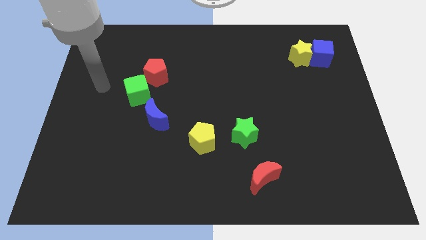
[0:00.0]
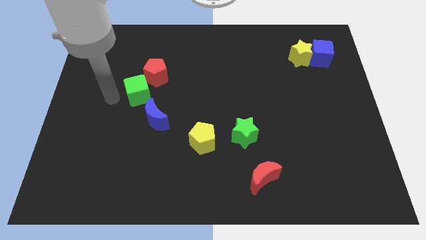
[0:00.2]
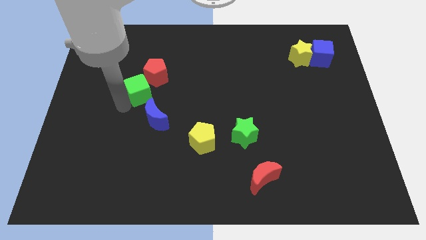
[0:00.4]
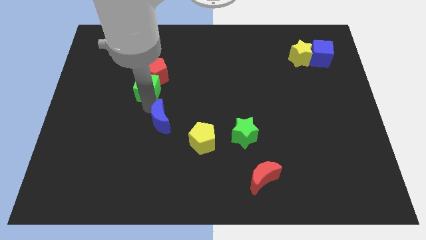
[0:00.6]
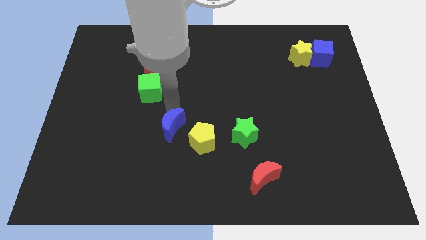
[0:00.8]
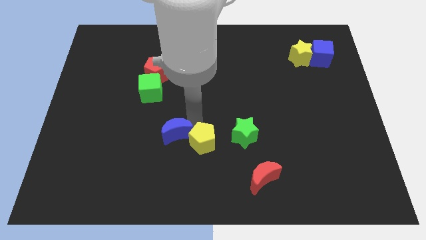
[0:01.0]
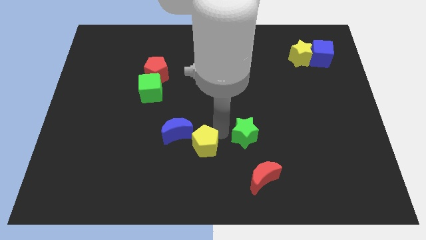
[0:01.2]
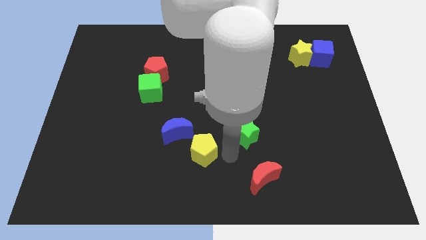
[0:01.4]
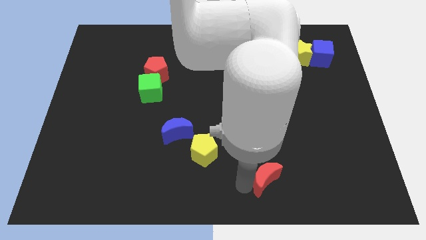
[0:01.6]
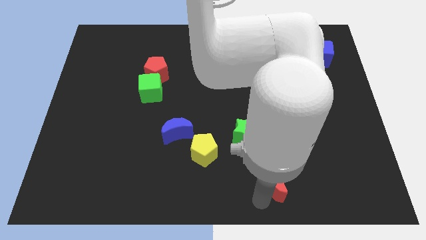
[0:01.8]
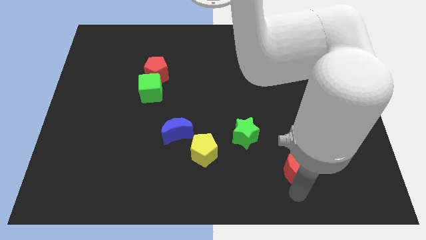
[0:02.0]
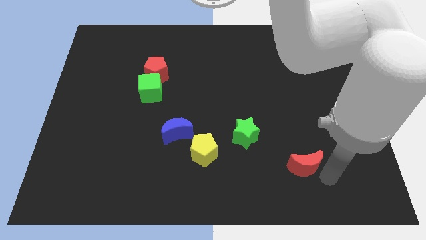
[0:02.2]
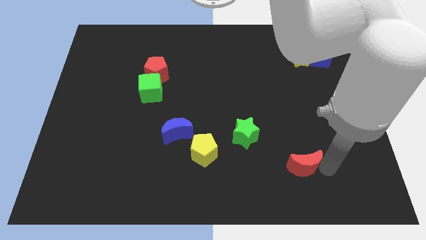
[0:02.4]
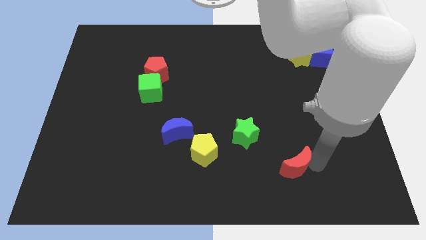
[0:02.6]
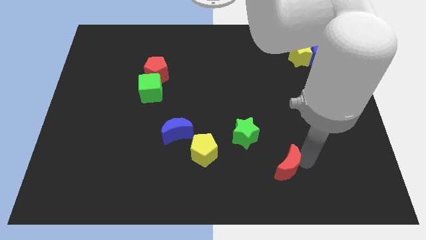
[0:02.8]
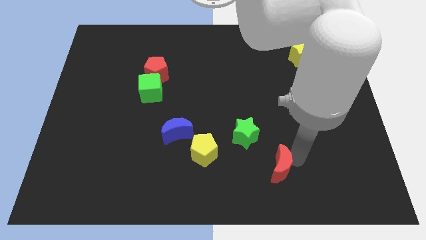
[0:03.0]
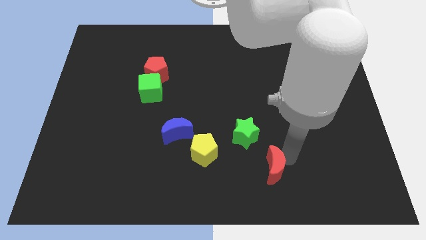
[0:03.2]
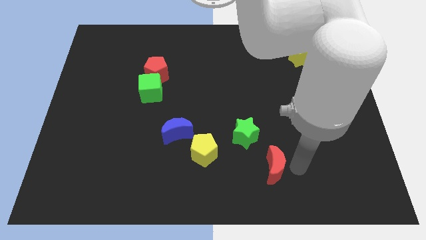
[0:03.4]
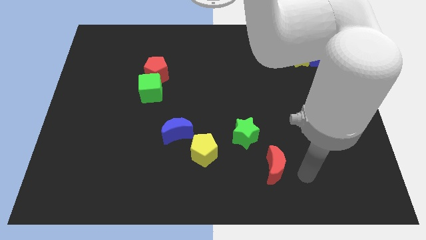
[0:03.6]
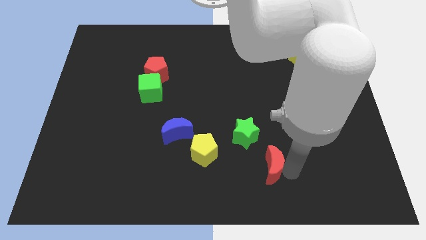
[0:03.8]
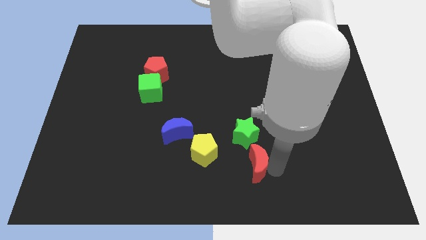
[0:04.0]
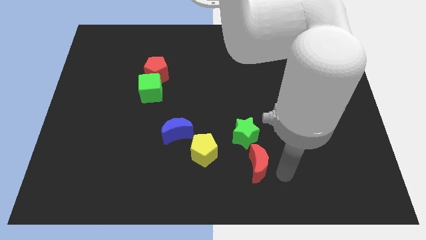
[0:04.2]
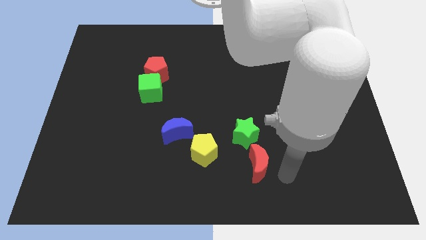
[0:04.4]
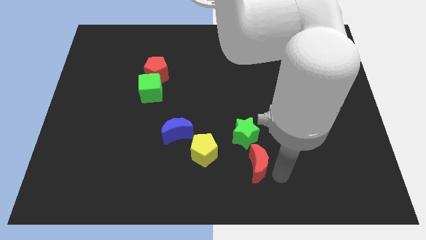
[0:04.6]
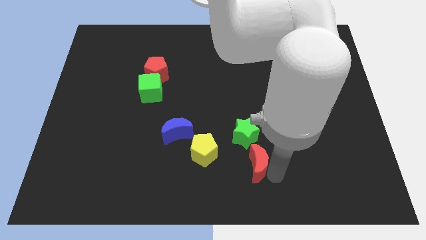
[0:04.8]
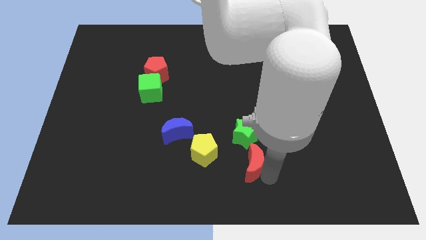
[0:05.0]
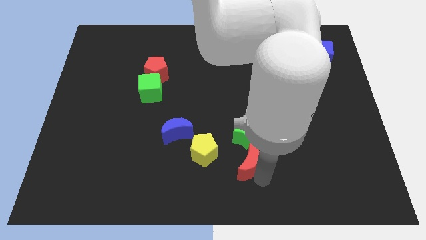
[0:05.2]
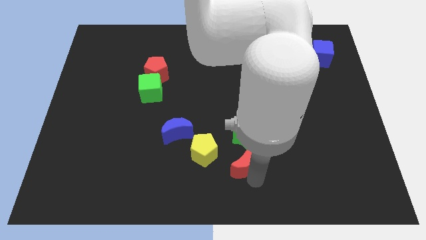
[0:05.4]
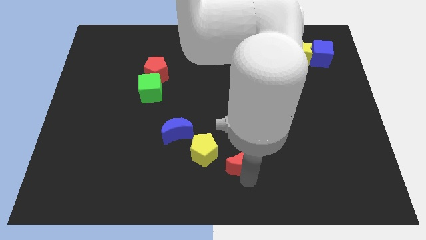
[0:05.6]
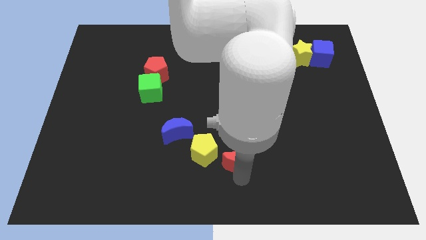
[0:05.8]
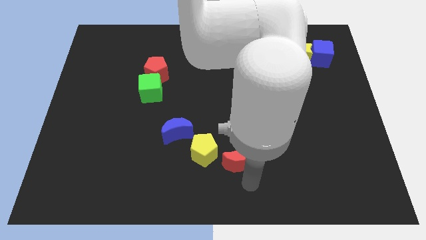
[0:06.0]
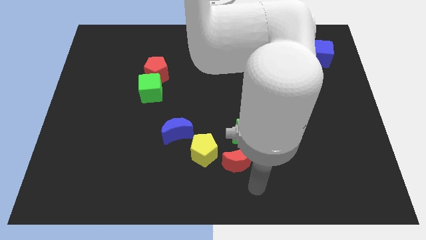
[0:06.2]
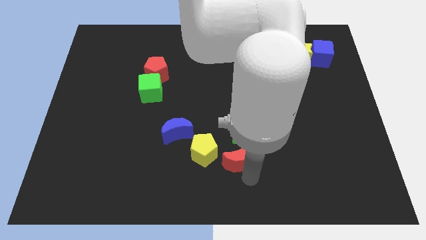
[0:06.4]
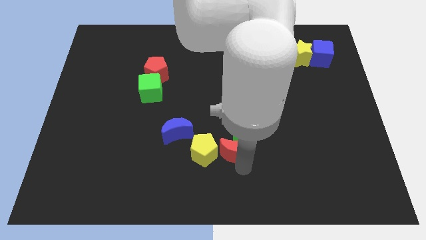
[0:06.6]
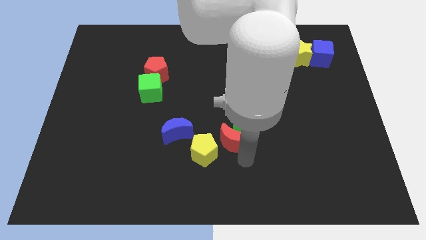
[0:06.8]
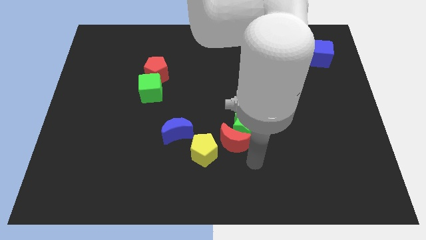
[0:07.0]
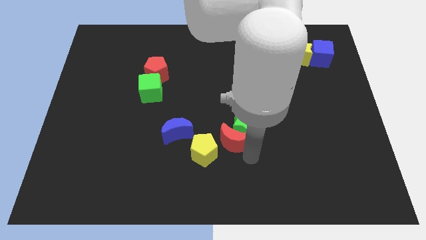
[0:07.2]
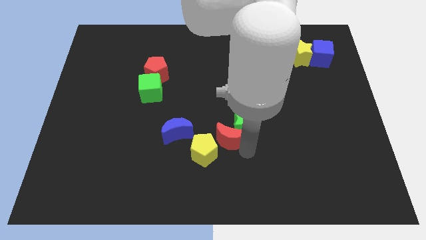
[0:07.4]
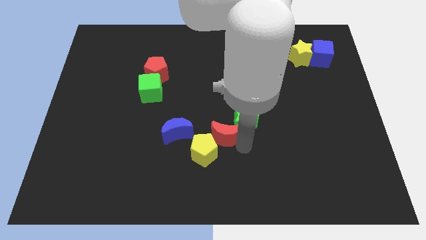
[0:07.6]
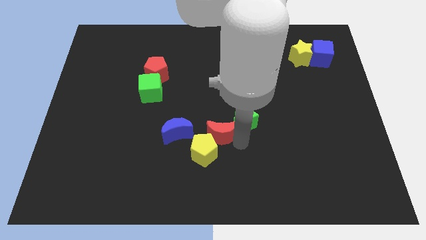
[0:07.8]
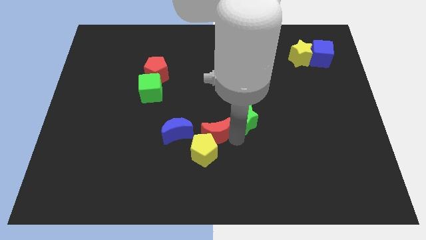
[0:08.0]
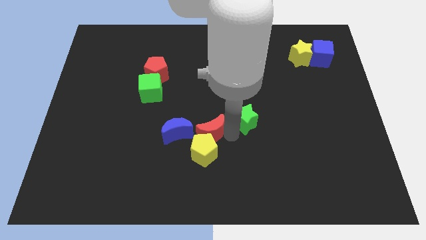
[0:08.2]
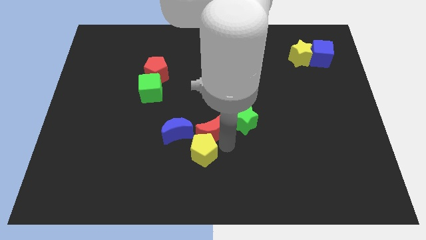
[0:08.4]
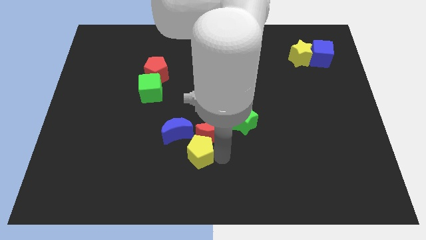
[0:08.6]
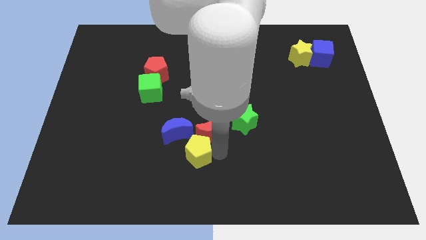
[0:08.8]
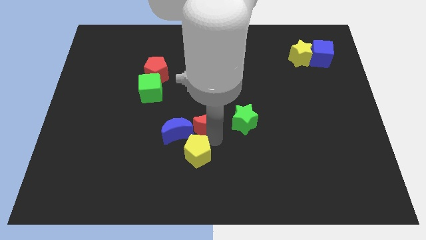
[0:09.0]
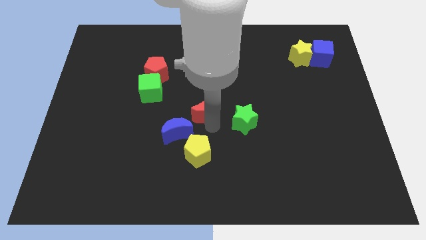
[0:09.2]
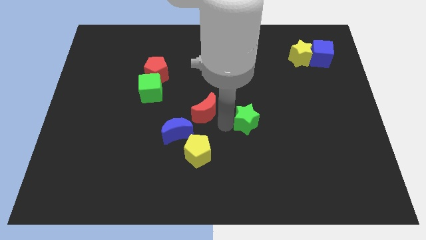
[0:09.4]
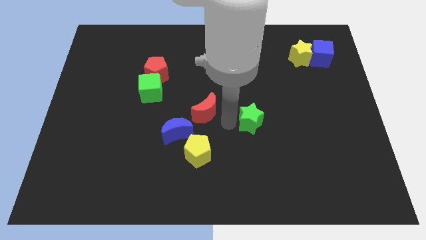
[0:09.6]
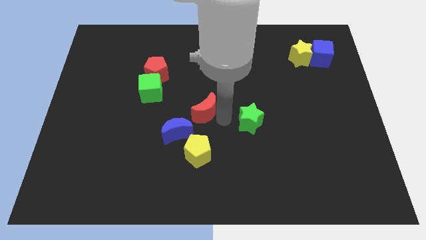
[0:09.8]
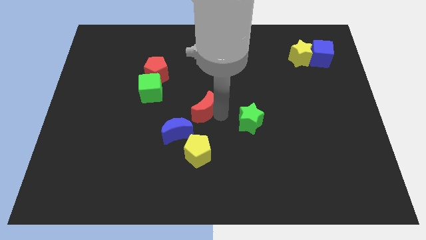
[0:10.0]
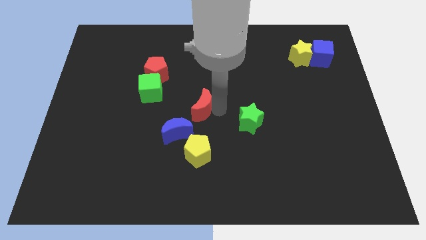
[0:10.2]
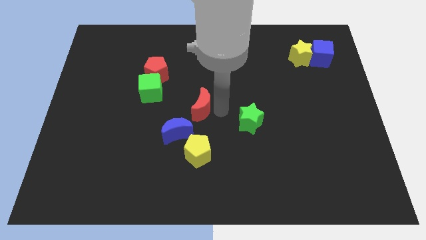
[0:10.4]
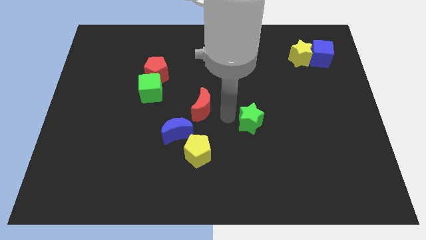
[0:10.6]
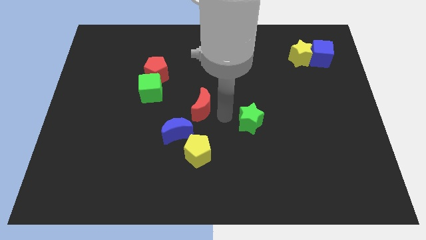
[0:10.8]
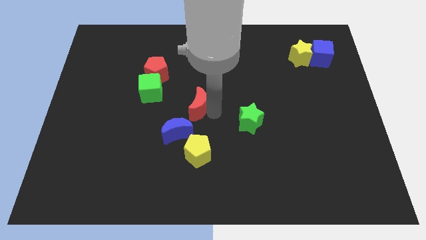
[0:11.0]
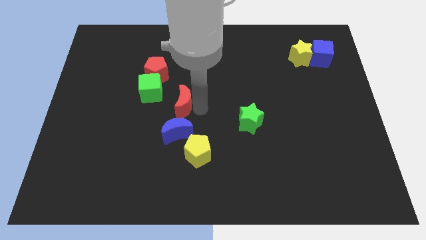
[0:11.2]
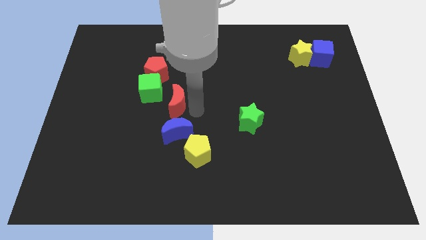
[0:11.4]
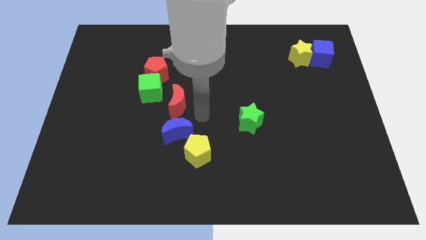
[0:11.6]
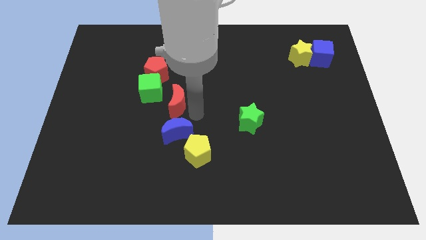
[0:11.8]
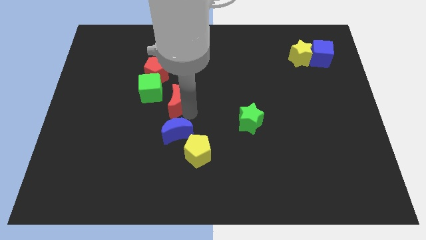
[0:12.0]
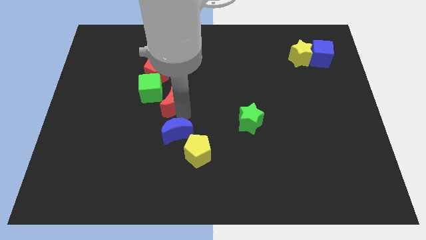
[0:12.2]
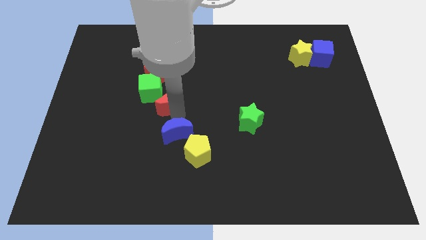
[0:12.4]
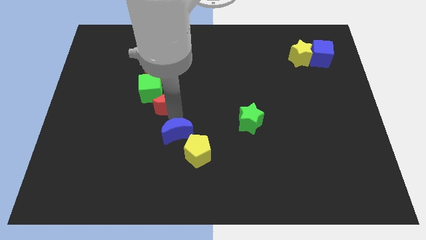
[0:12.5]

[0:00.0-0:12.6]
slide the red moon close to the green cube

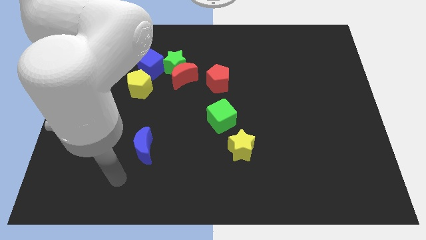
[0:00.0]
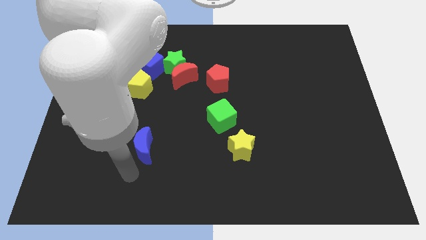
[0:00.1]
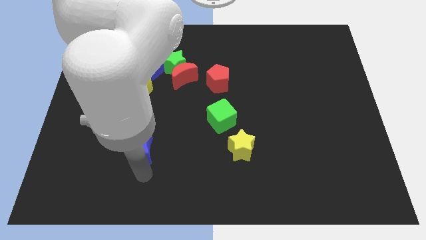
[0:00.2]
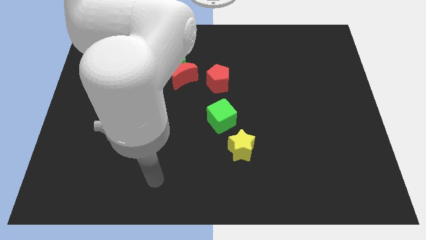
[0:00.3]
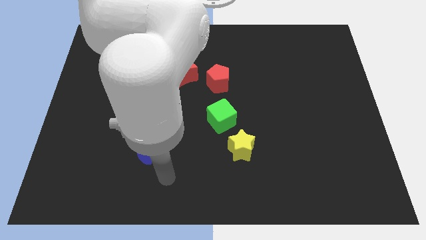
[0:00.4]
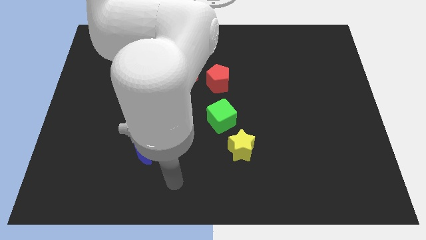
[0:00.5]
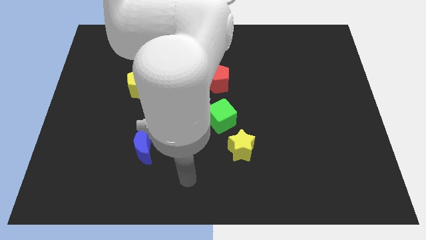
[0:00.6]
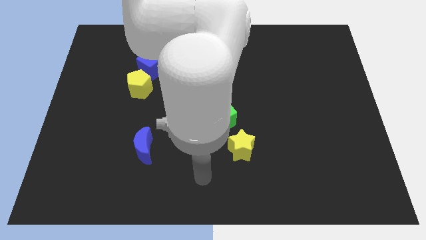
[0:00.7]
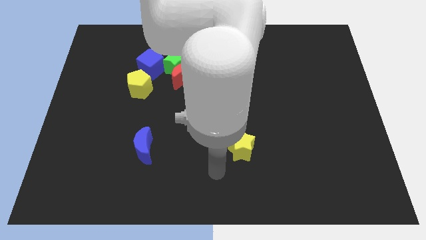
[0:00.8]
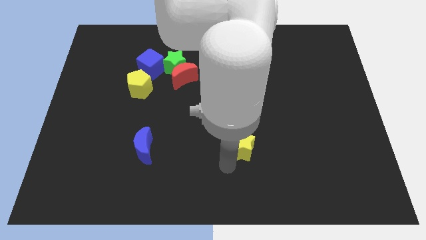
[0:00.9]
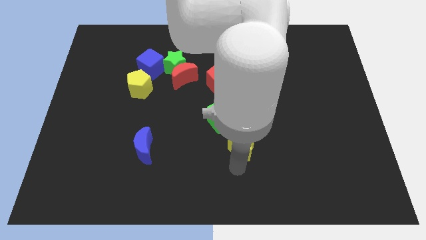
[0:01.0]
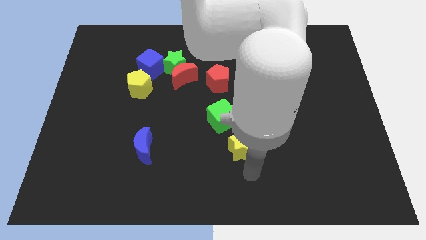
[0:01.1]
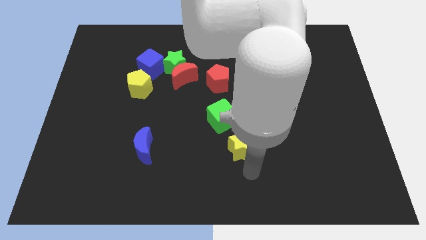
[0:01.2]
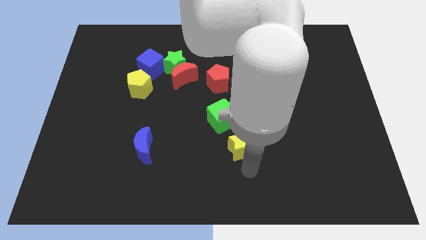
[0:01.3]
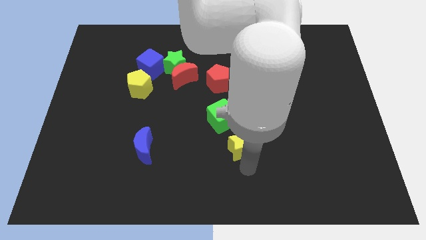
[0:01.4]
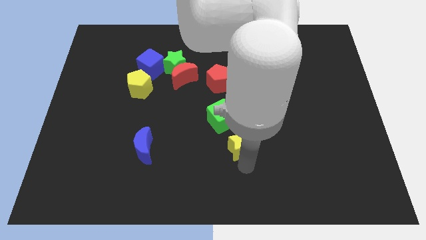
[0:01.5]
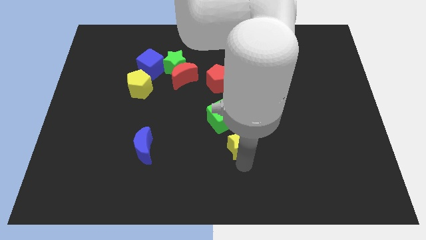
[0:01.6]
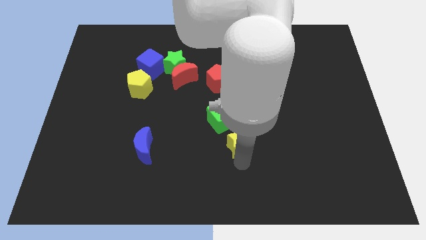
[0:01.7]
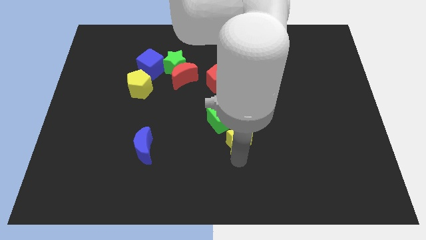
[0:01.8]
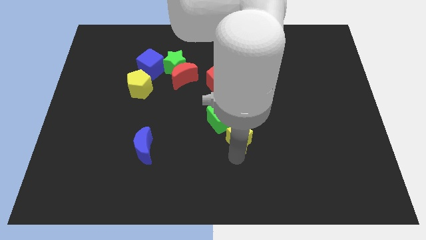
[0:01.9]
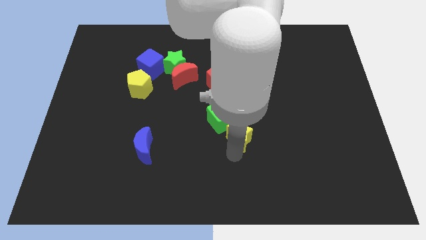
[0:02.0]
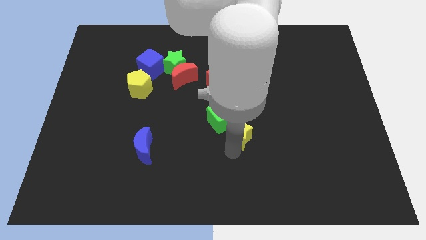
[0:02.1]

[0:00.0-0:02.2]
put the yellow star towards the green cube
